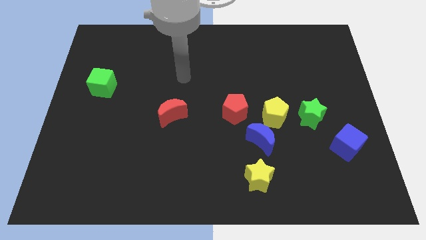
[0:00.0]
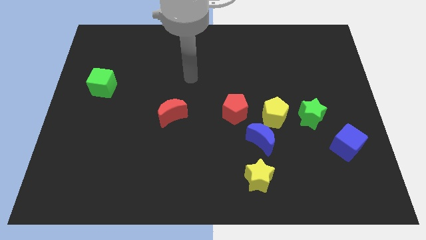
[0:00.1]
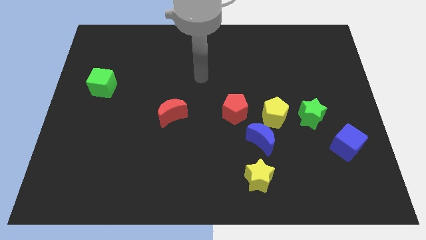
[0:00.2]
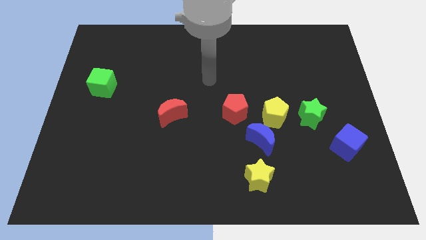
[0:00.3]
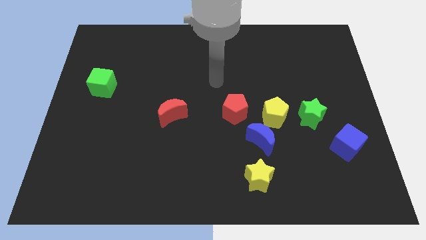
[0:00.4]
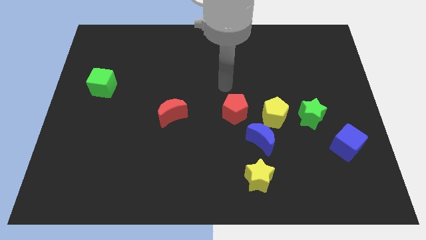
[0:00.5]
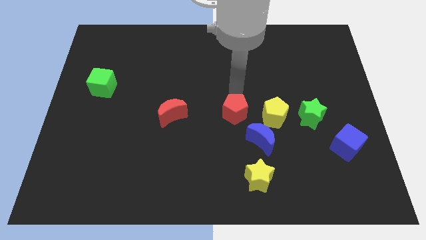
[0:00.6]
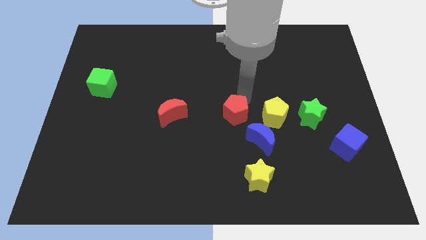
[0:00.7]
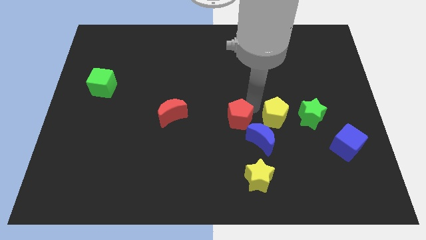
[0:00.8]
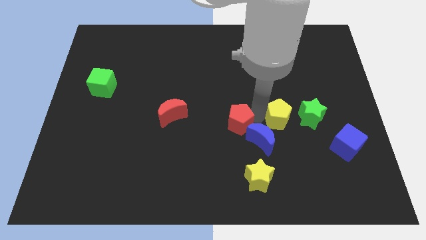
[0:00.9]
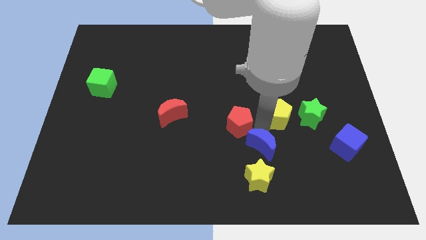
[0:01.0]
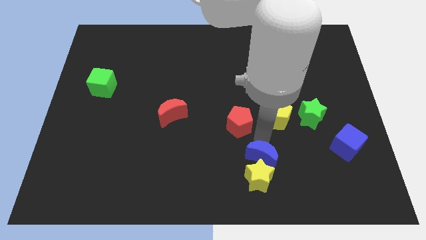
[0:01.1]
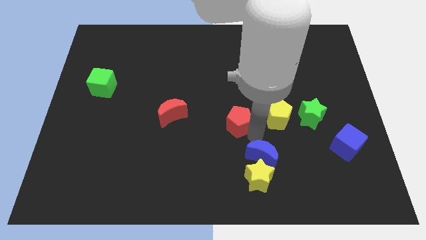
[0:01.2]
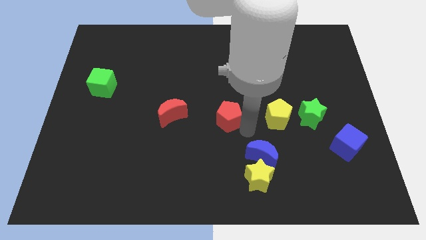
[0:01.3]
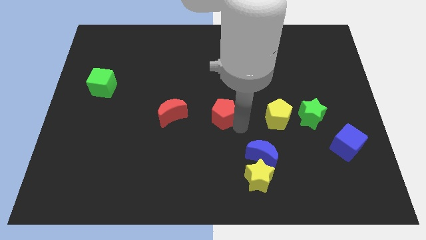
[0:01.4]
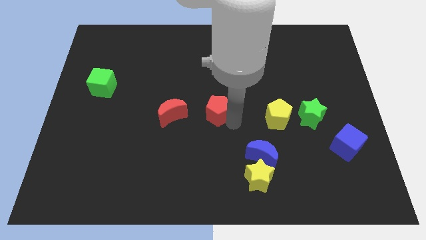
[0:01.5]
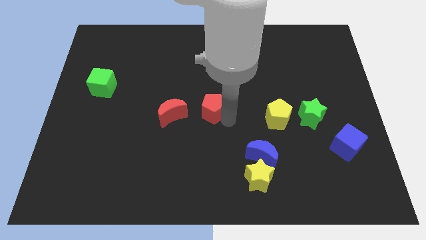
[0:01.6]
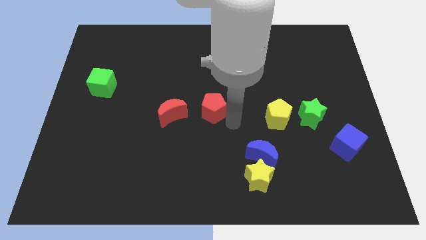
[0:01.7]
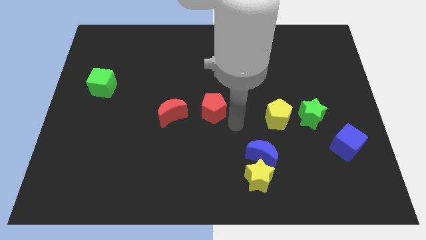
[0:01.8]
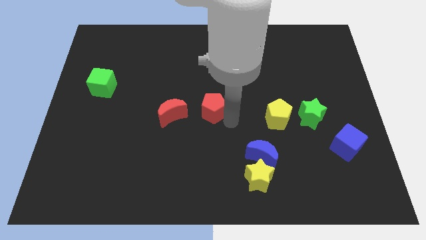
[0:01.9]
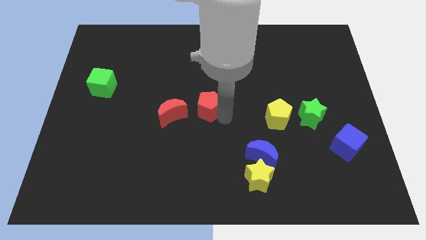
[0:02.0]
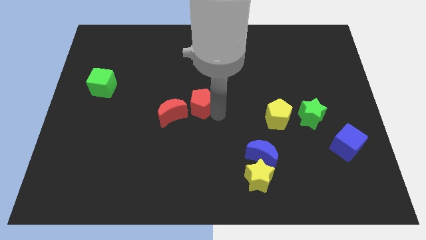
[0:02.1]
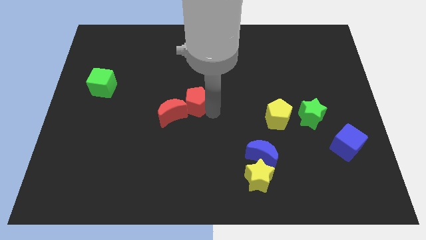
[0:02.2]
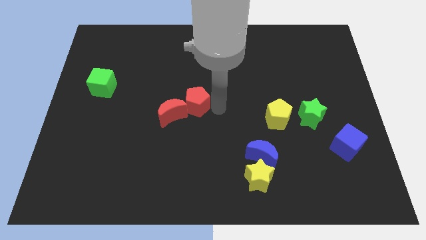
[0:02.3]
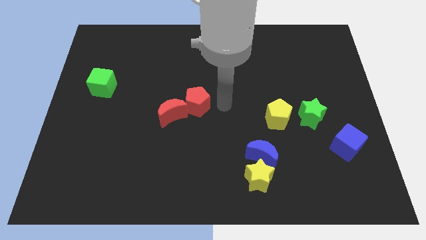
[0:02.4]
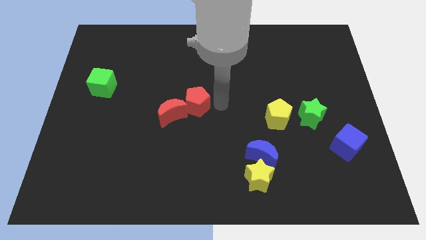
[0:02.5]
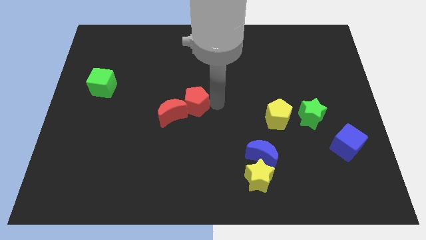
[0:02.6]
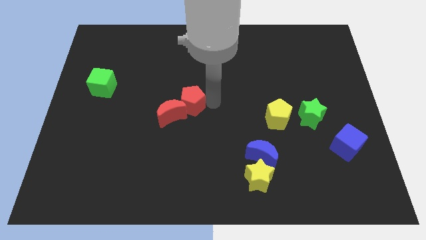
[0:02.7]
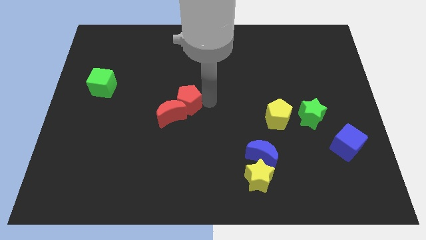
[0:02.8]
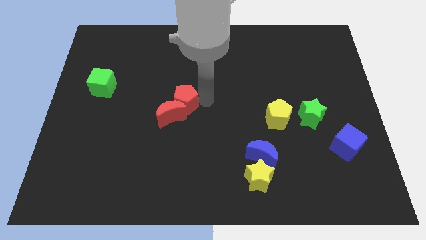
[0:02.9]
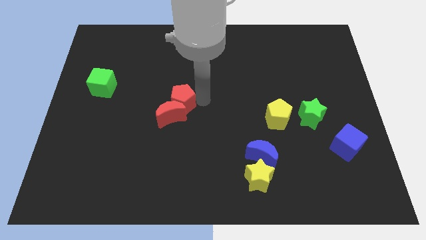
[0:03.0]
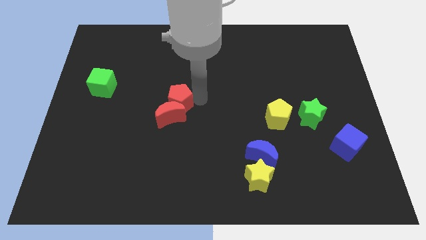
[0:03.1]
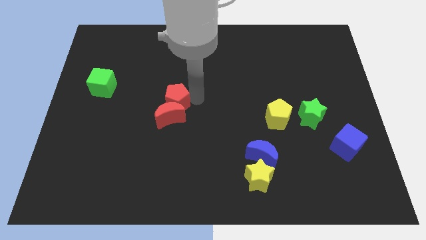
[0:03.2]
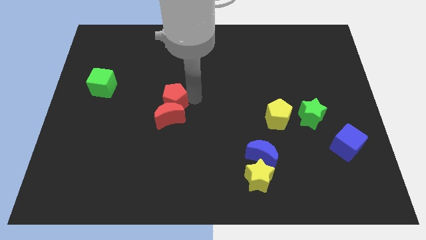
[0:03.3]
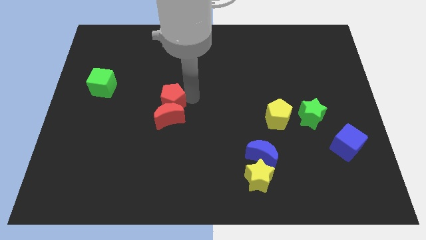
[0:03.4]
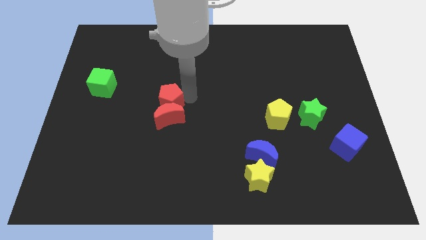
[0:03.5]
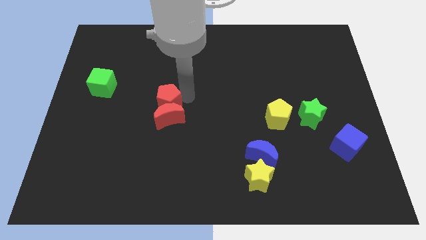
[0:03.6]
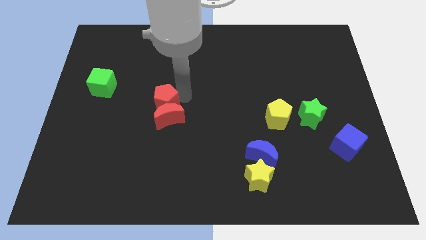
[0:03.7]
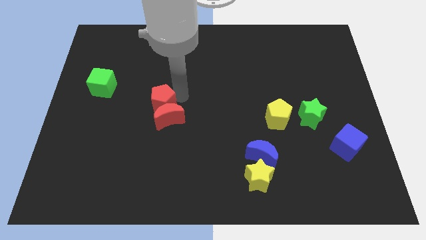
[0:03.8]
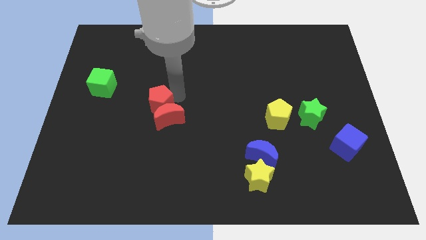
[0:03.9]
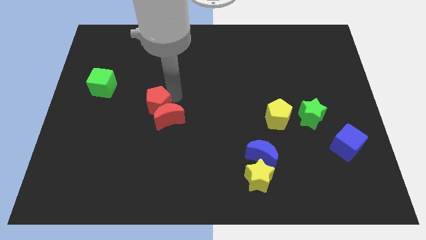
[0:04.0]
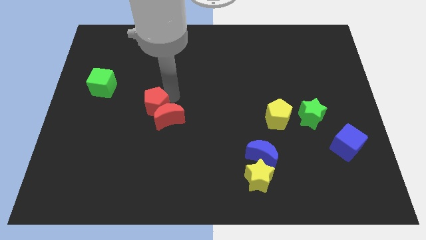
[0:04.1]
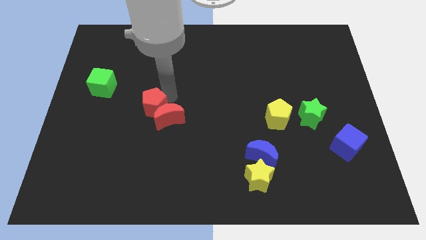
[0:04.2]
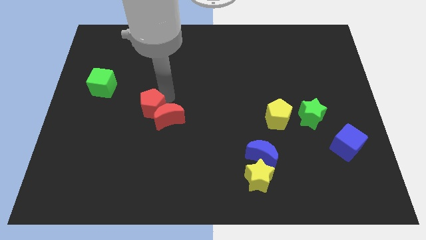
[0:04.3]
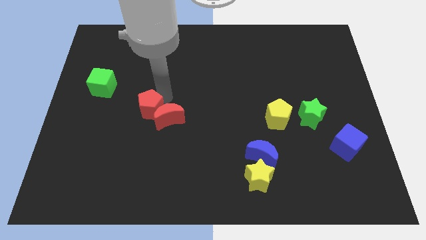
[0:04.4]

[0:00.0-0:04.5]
slide the red pentagon to the left

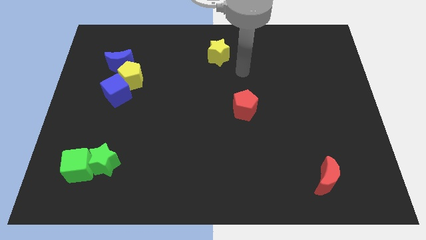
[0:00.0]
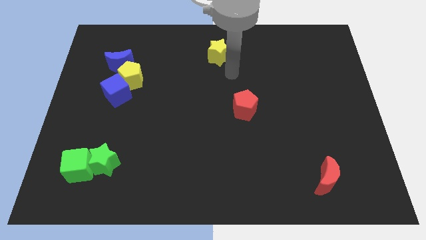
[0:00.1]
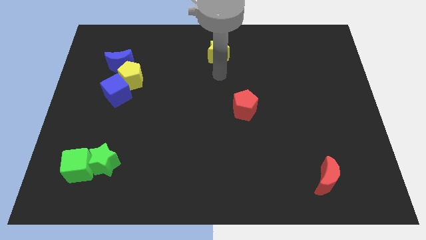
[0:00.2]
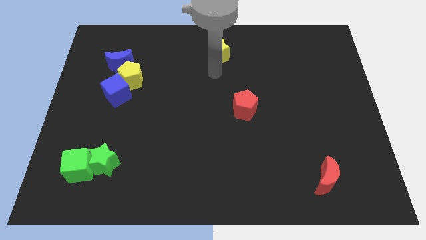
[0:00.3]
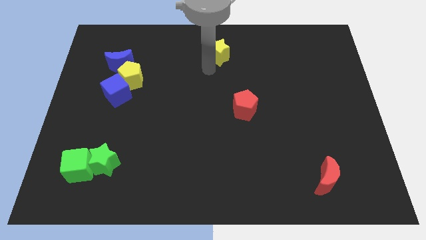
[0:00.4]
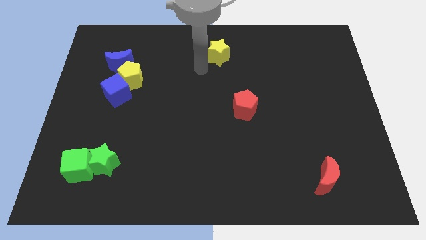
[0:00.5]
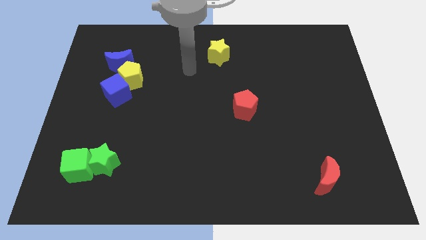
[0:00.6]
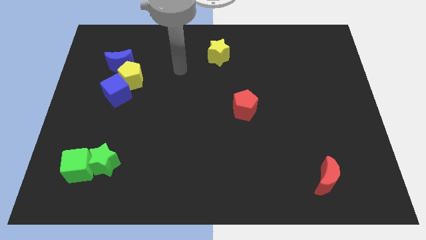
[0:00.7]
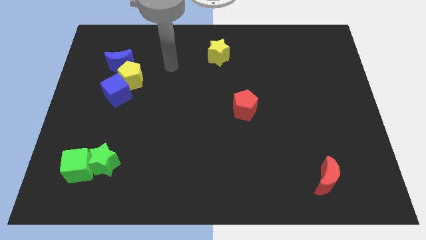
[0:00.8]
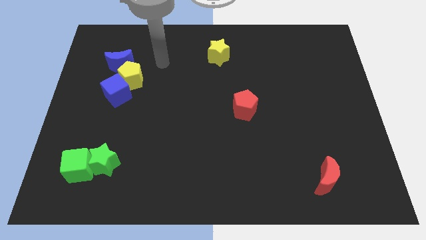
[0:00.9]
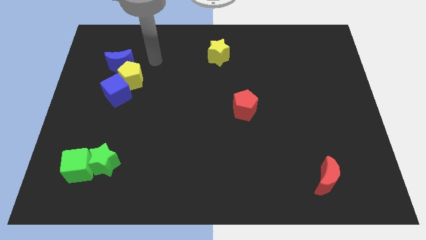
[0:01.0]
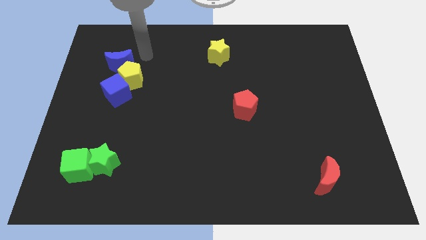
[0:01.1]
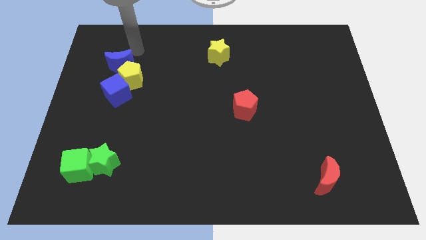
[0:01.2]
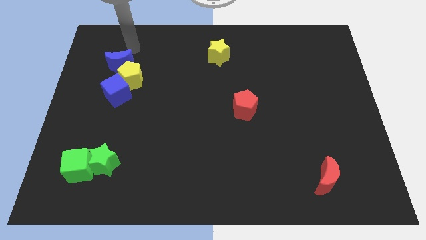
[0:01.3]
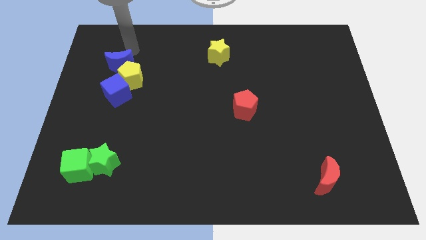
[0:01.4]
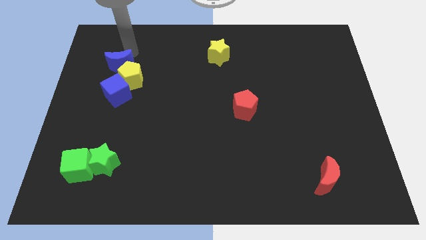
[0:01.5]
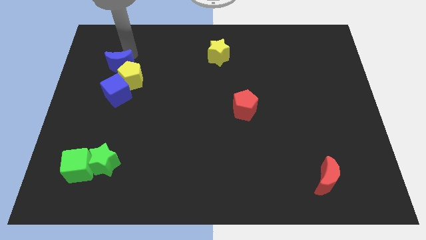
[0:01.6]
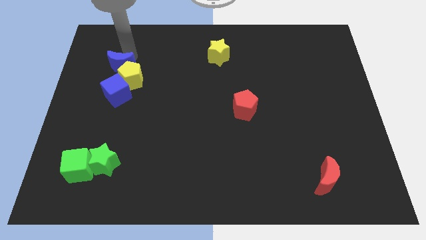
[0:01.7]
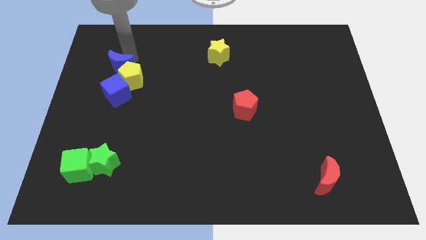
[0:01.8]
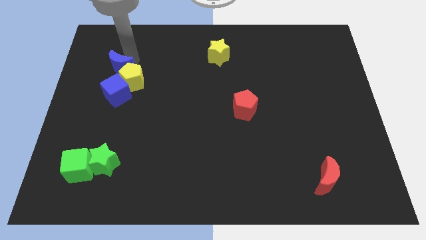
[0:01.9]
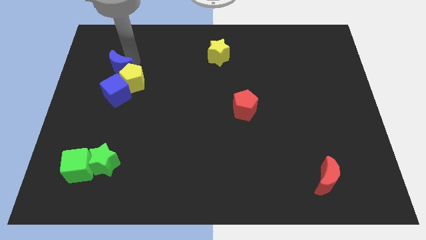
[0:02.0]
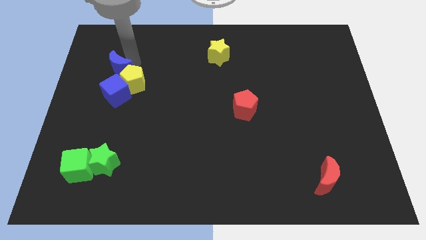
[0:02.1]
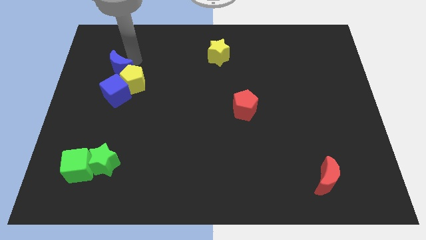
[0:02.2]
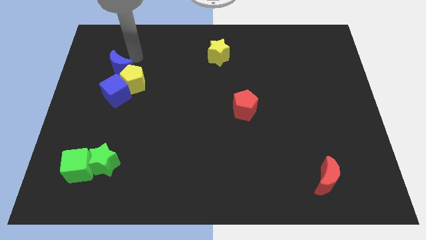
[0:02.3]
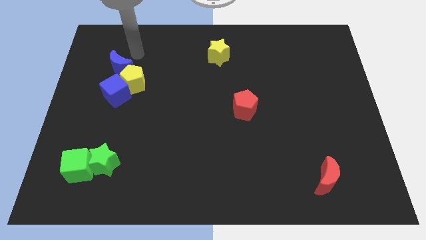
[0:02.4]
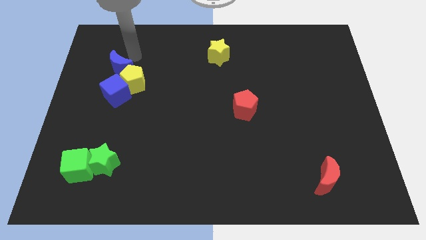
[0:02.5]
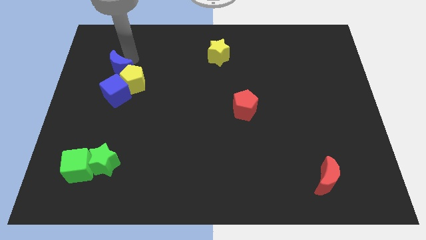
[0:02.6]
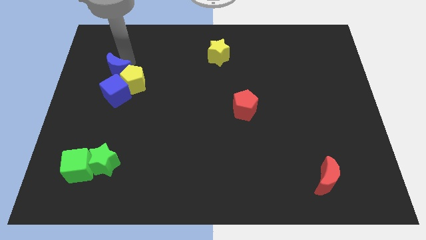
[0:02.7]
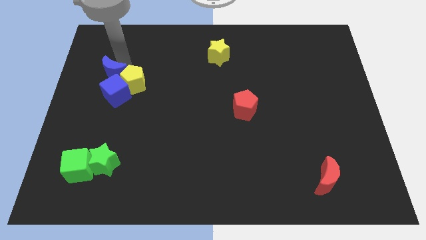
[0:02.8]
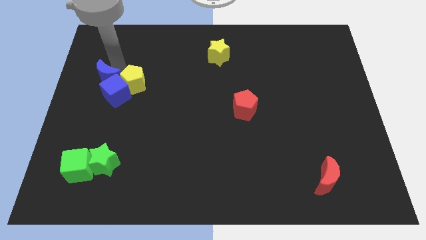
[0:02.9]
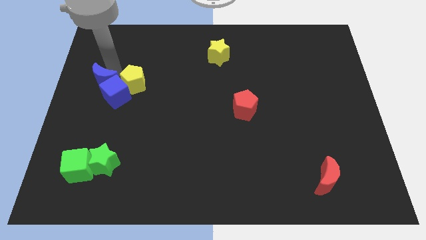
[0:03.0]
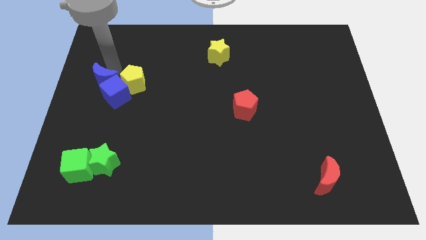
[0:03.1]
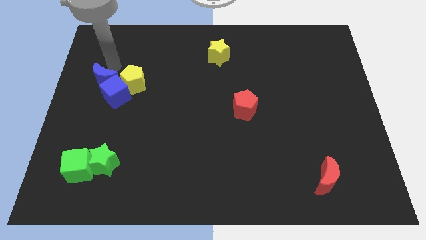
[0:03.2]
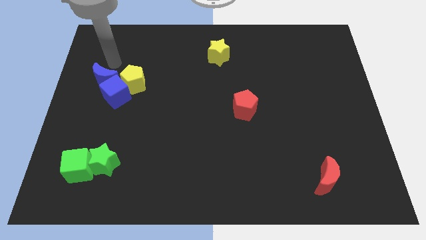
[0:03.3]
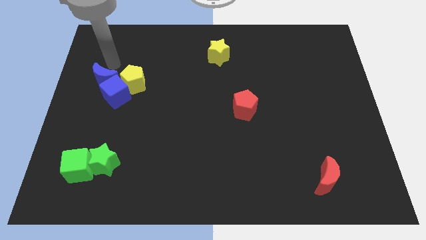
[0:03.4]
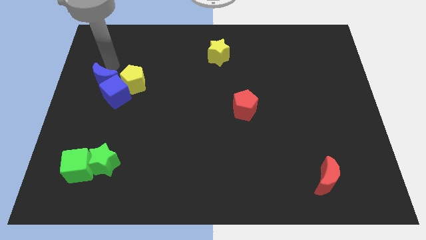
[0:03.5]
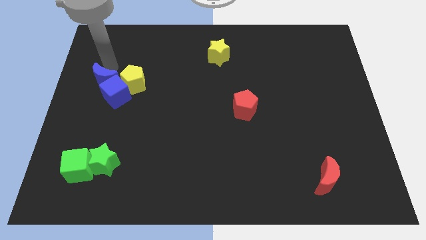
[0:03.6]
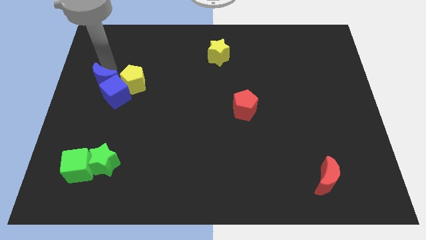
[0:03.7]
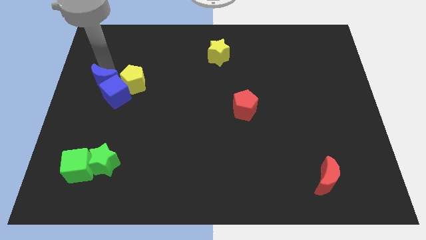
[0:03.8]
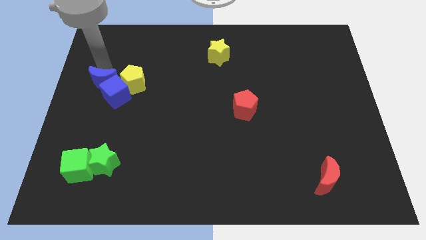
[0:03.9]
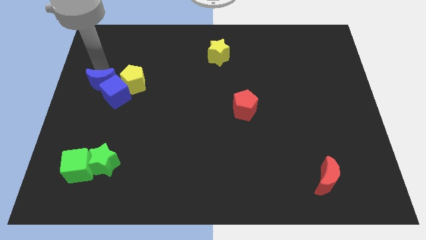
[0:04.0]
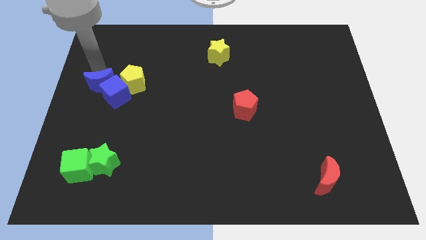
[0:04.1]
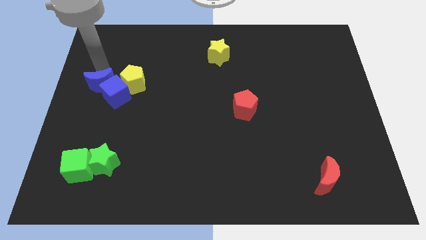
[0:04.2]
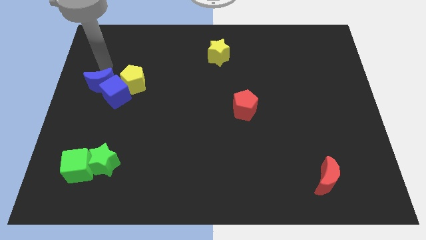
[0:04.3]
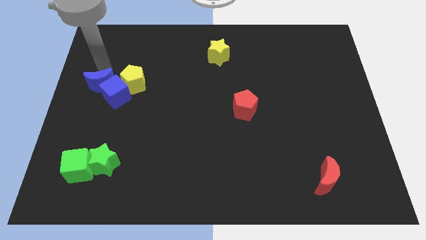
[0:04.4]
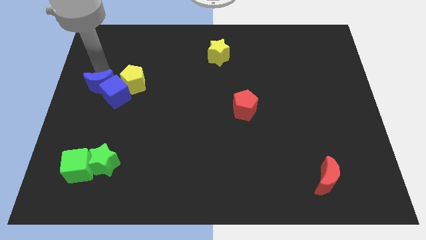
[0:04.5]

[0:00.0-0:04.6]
slide the blue moon a little down
